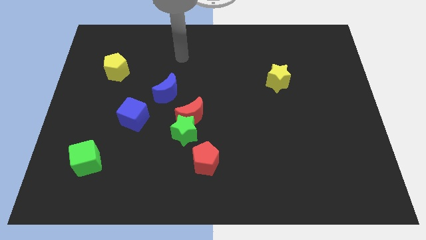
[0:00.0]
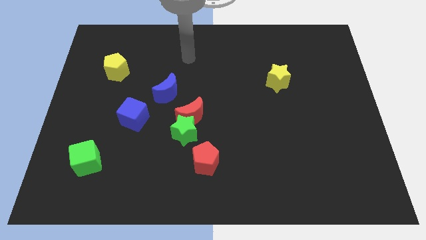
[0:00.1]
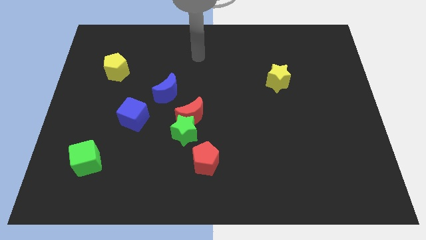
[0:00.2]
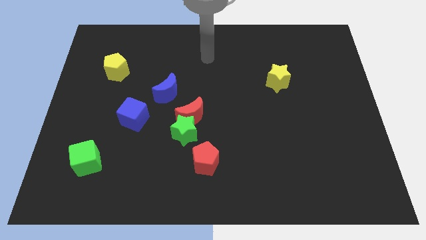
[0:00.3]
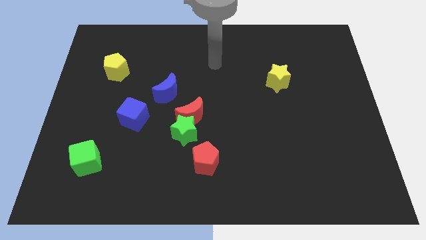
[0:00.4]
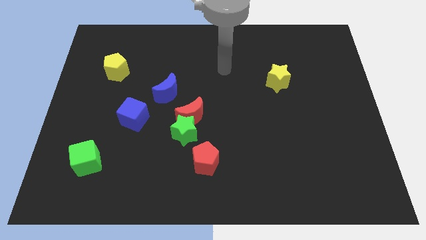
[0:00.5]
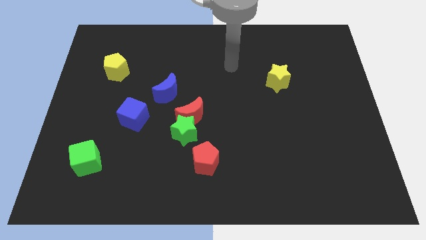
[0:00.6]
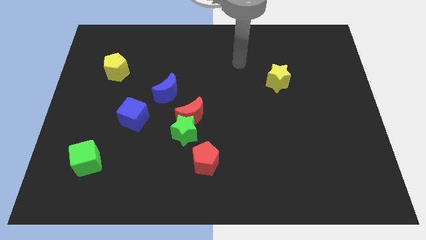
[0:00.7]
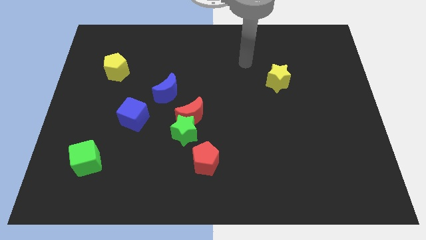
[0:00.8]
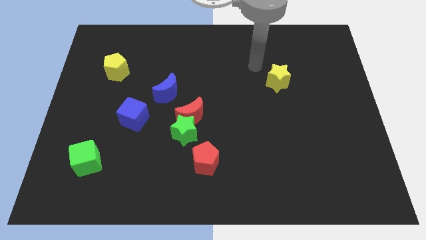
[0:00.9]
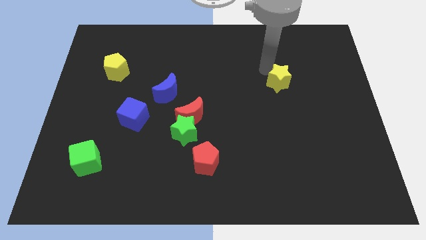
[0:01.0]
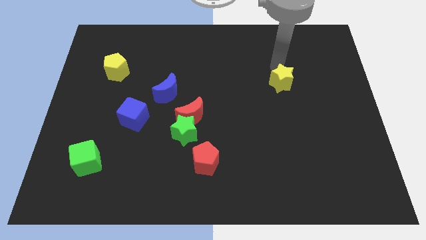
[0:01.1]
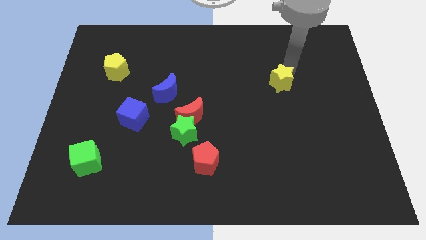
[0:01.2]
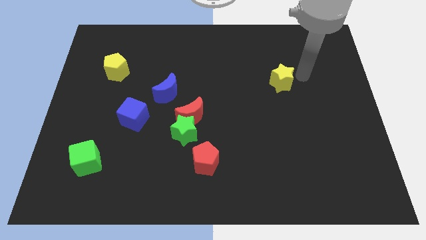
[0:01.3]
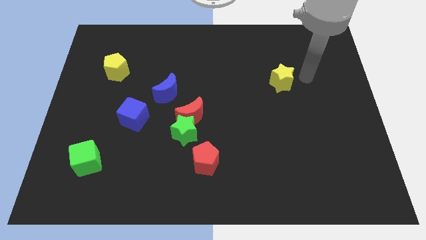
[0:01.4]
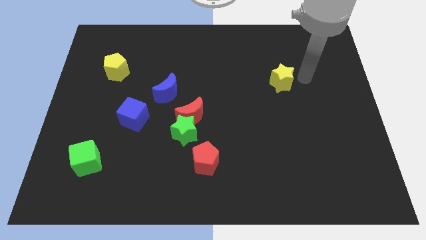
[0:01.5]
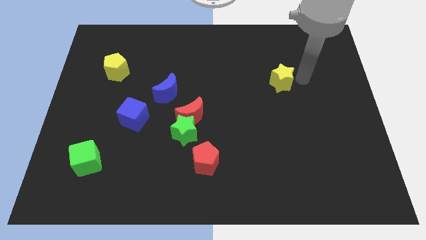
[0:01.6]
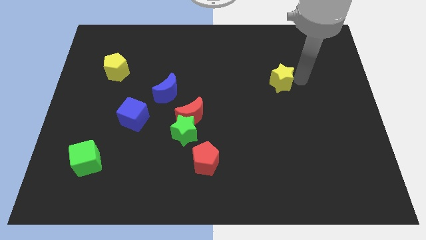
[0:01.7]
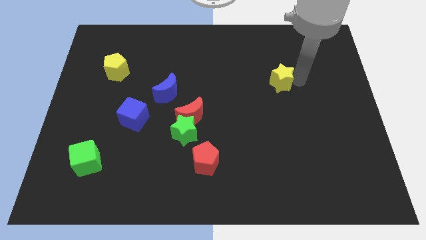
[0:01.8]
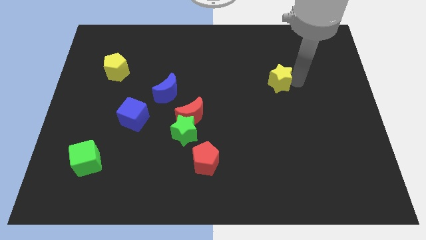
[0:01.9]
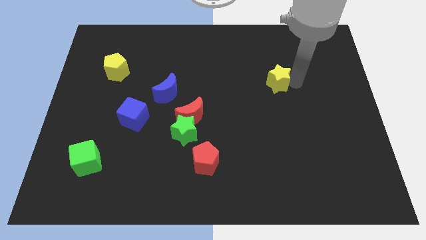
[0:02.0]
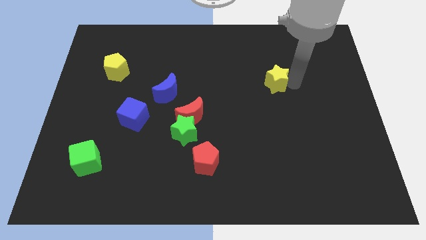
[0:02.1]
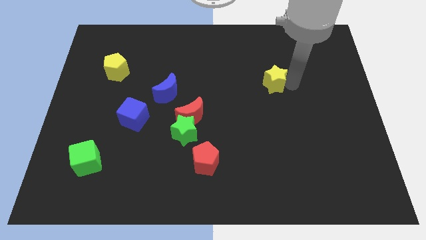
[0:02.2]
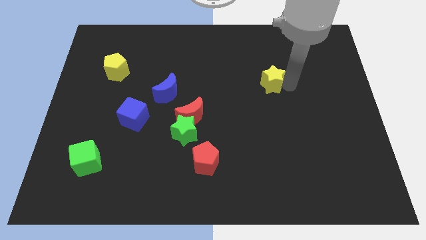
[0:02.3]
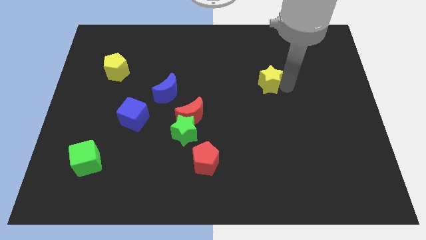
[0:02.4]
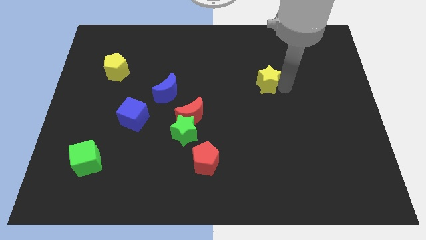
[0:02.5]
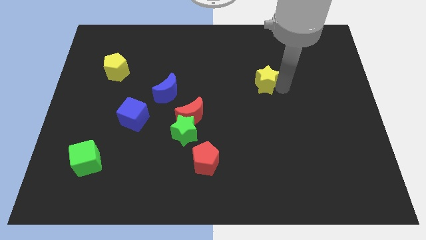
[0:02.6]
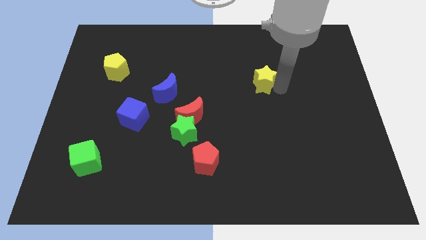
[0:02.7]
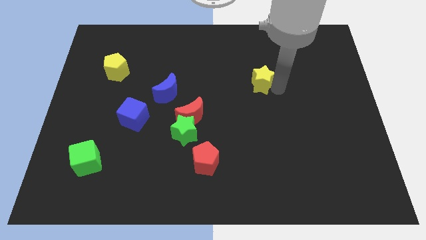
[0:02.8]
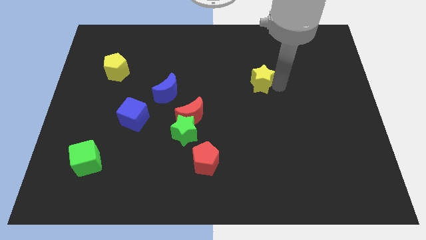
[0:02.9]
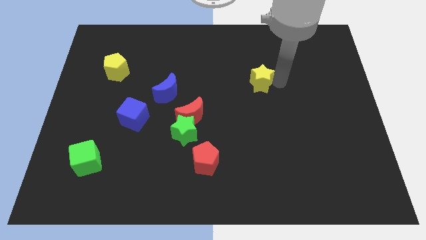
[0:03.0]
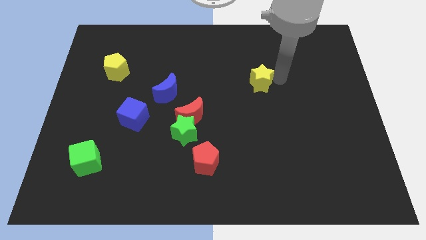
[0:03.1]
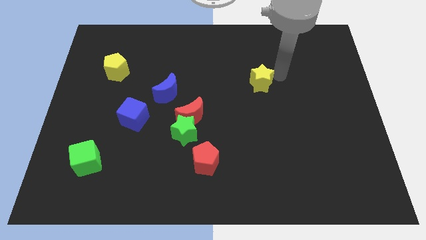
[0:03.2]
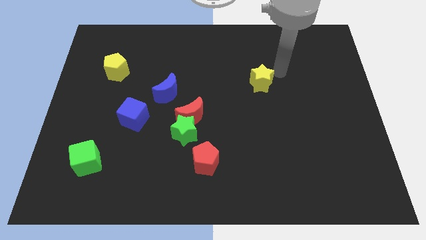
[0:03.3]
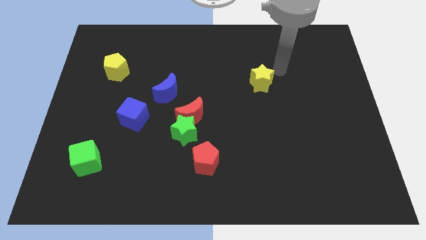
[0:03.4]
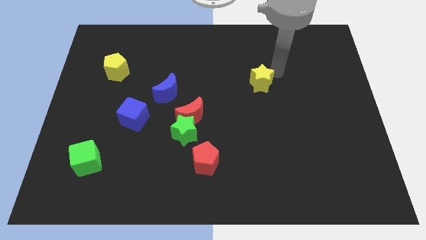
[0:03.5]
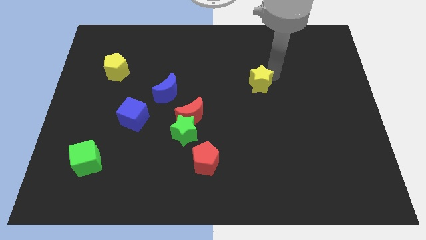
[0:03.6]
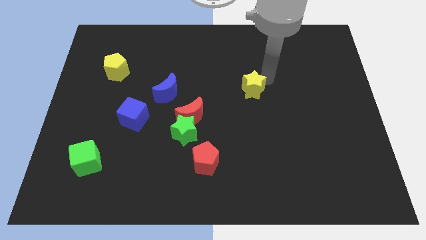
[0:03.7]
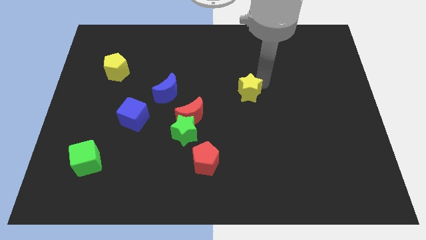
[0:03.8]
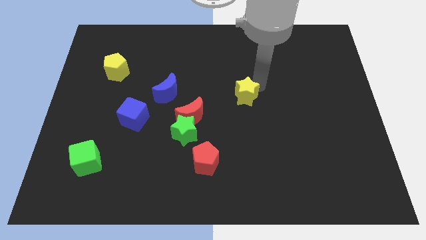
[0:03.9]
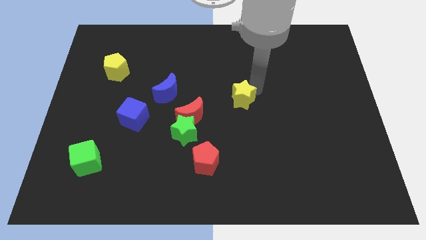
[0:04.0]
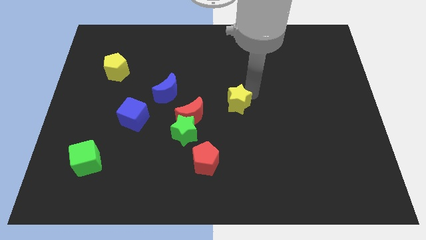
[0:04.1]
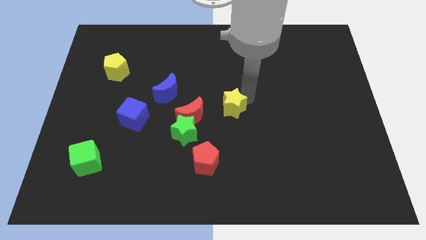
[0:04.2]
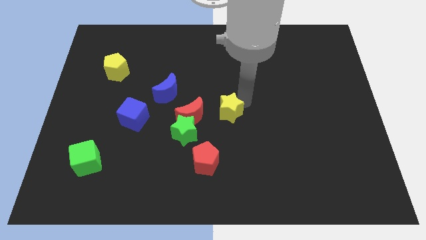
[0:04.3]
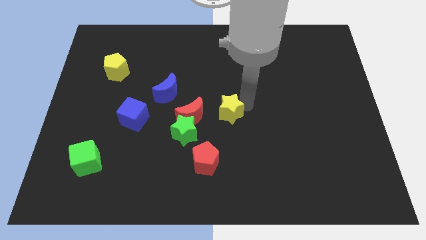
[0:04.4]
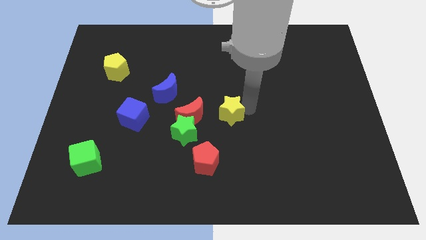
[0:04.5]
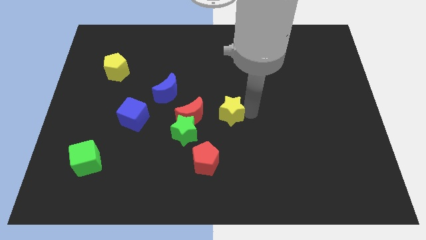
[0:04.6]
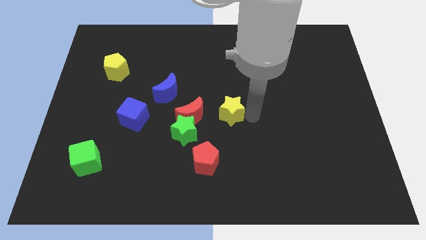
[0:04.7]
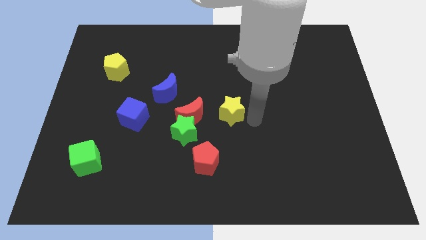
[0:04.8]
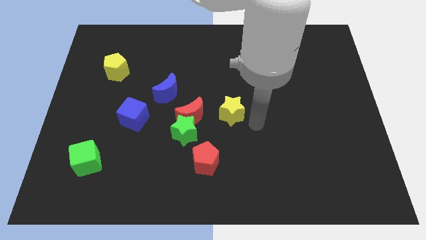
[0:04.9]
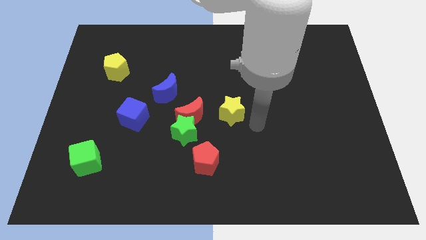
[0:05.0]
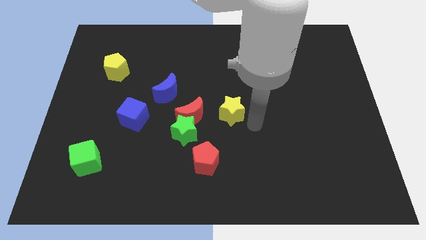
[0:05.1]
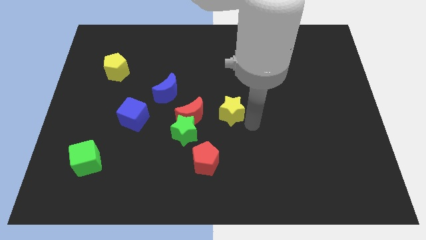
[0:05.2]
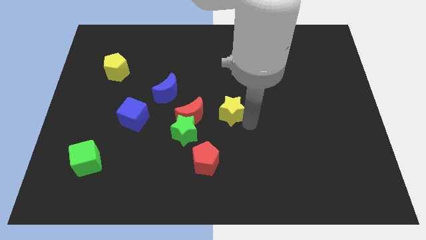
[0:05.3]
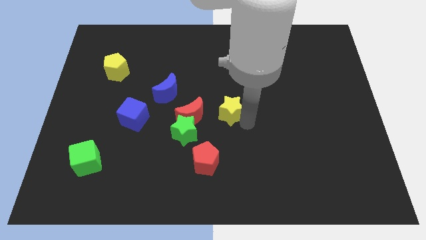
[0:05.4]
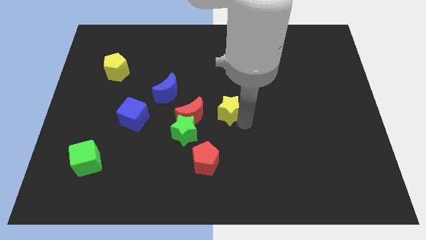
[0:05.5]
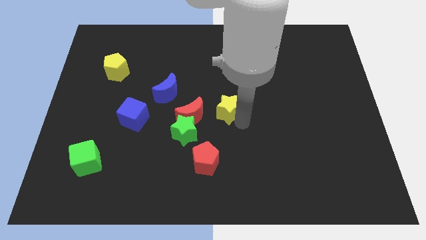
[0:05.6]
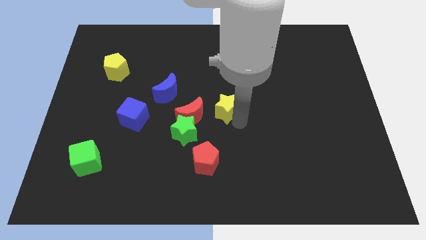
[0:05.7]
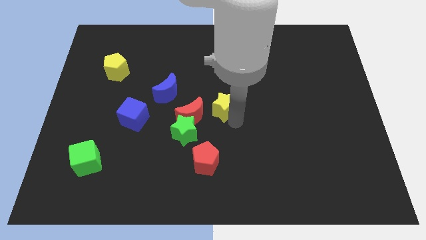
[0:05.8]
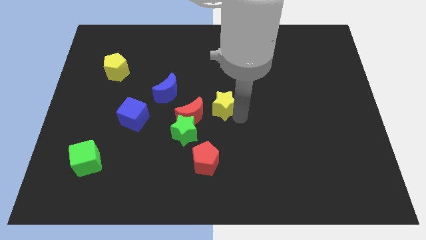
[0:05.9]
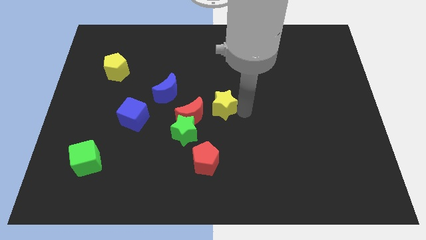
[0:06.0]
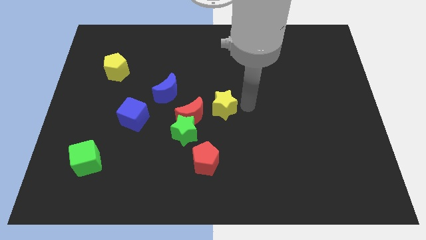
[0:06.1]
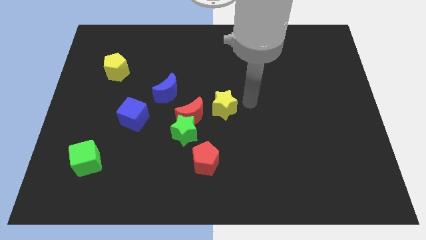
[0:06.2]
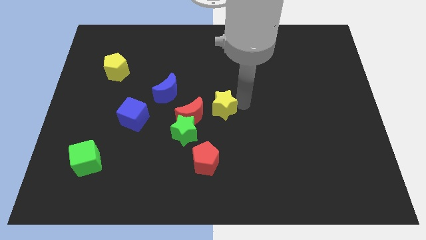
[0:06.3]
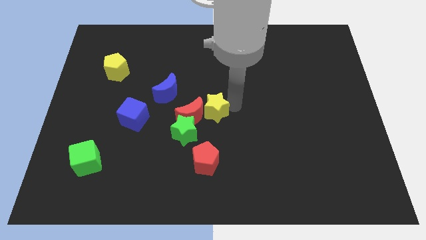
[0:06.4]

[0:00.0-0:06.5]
move the yellow star towards the red moon

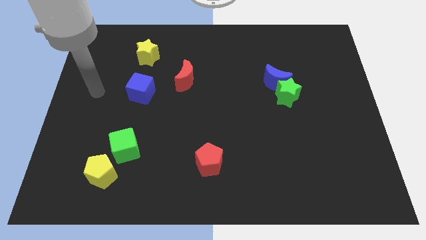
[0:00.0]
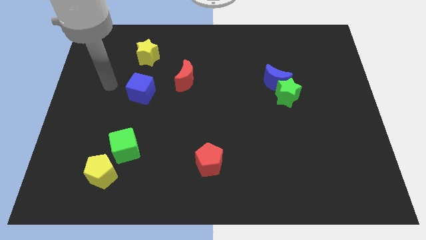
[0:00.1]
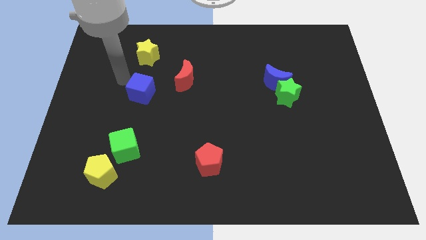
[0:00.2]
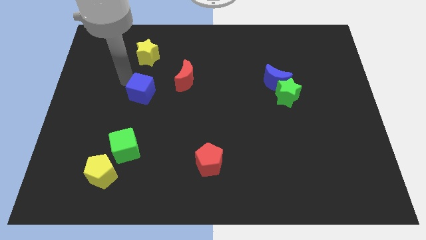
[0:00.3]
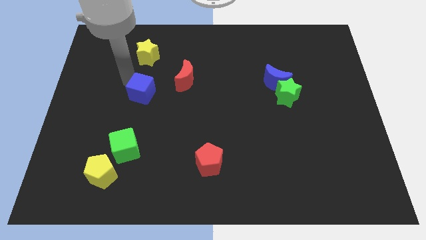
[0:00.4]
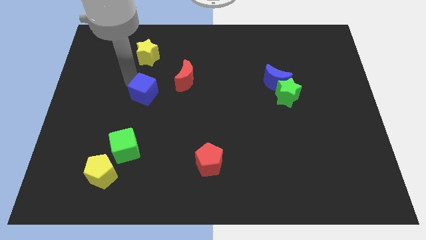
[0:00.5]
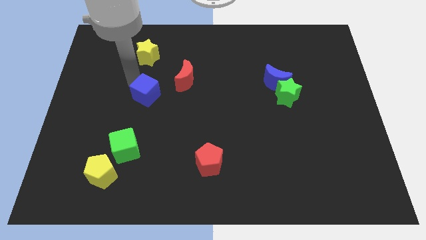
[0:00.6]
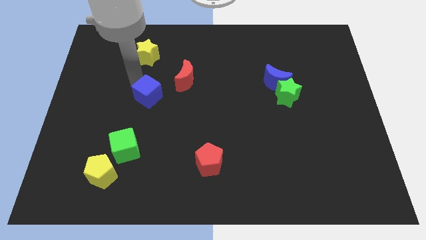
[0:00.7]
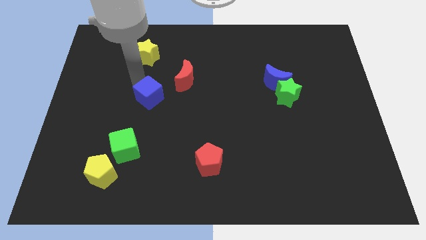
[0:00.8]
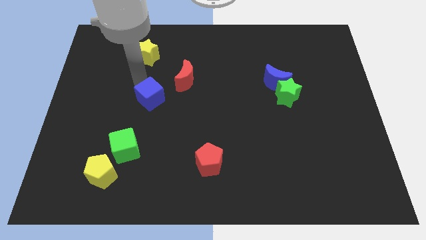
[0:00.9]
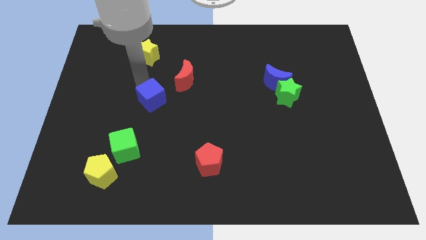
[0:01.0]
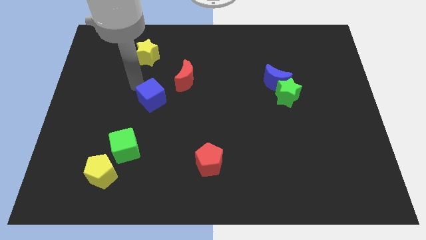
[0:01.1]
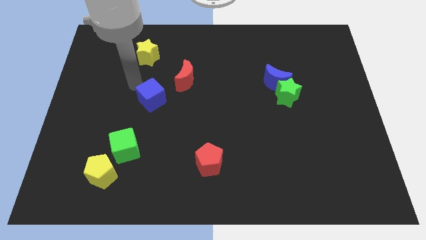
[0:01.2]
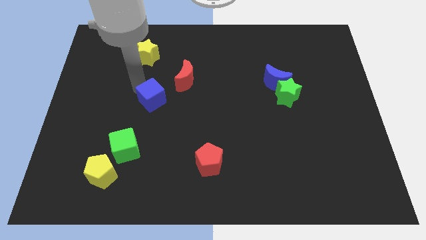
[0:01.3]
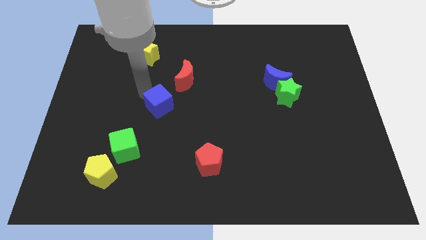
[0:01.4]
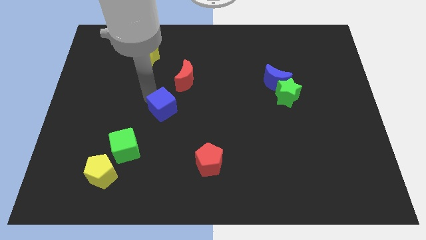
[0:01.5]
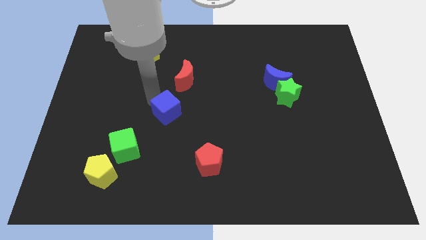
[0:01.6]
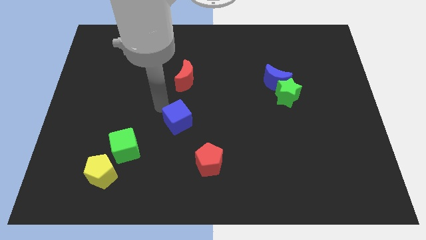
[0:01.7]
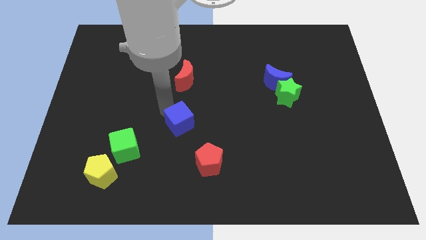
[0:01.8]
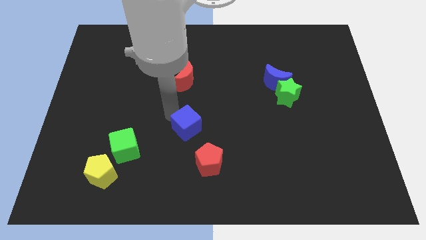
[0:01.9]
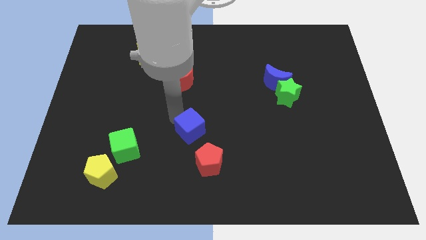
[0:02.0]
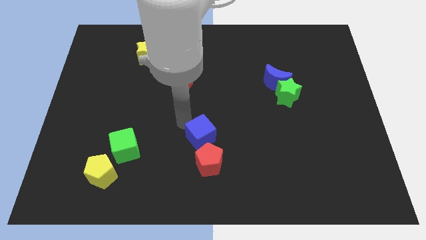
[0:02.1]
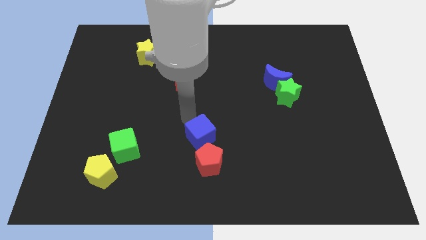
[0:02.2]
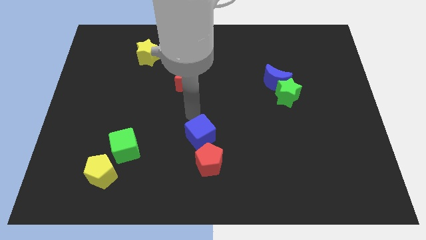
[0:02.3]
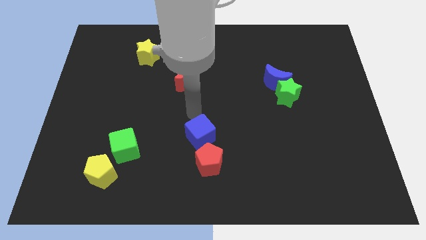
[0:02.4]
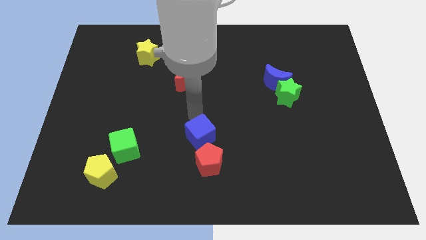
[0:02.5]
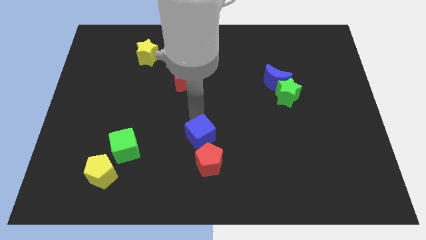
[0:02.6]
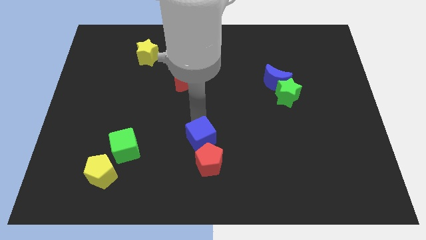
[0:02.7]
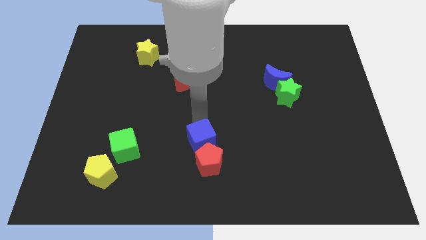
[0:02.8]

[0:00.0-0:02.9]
slide the blue cube next to the red pentagon
